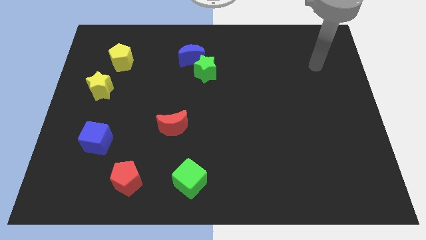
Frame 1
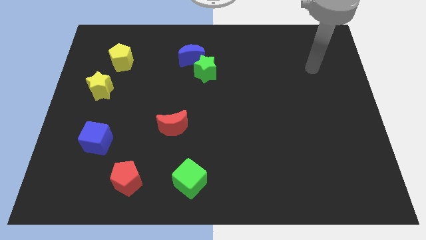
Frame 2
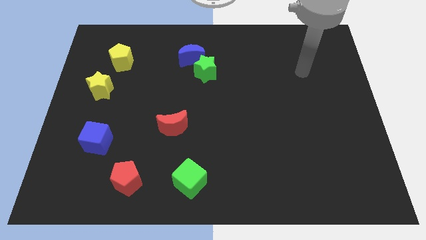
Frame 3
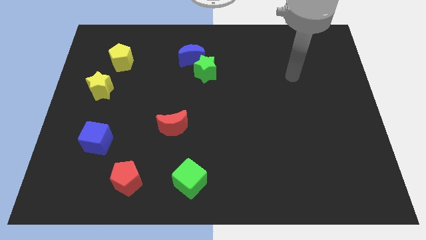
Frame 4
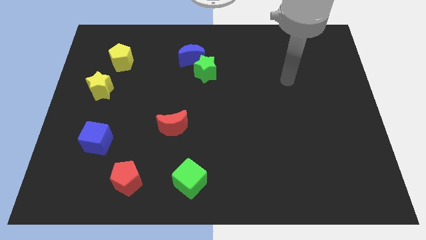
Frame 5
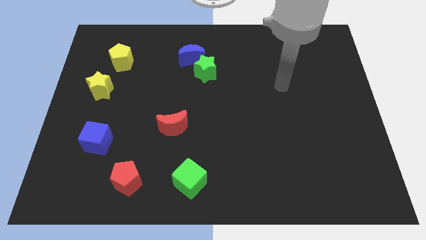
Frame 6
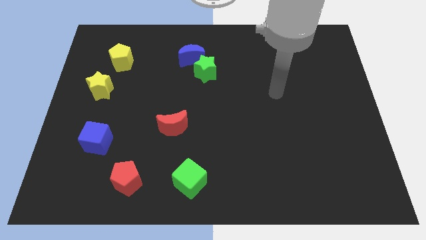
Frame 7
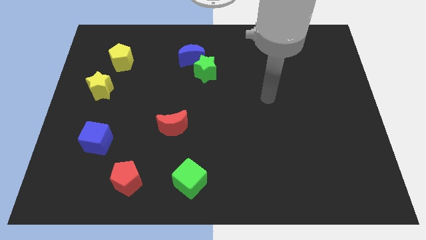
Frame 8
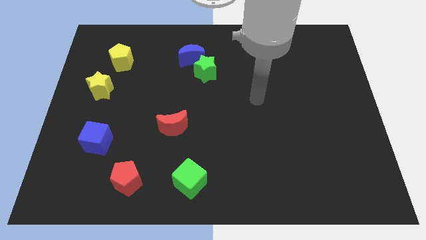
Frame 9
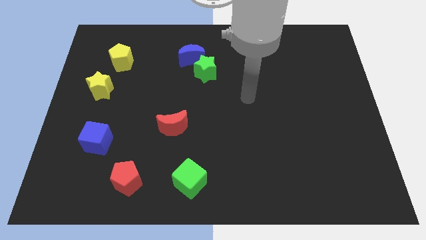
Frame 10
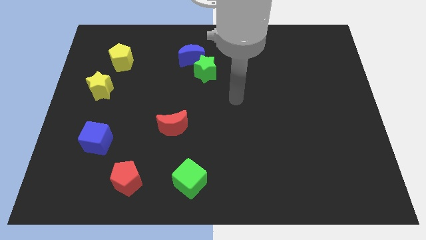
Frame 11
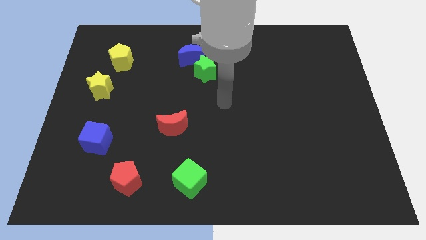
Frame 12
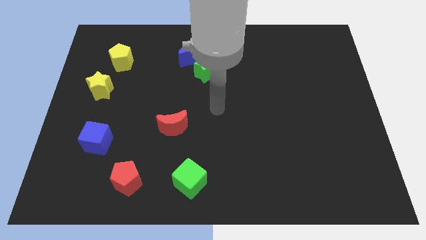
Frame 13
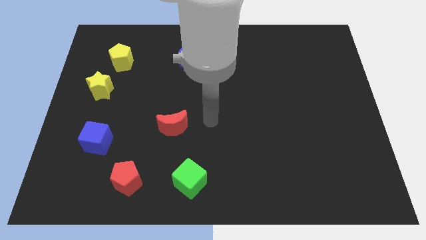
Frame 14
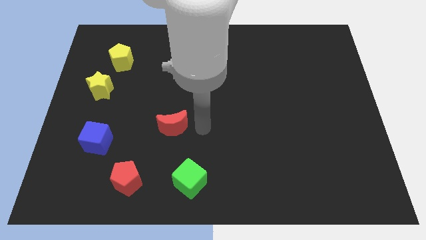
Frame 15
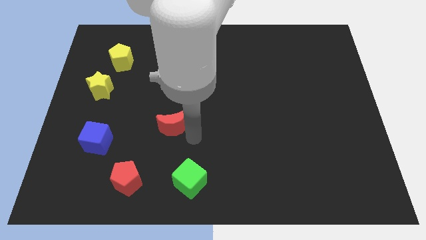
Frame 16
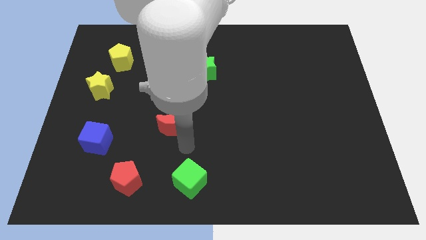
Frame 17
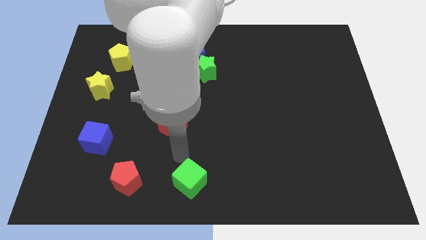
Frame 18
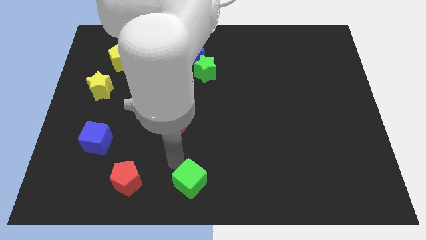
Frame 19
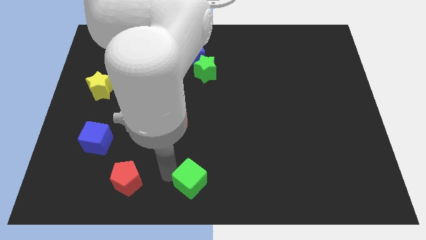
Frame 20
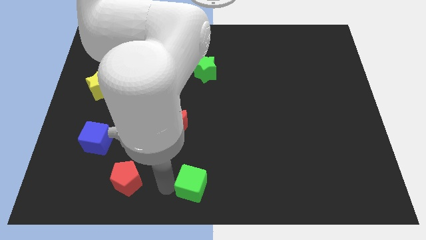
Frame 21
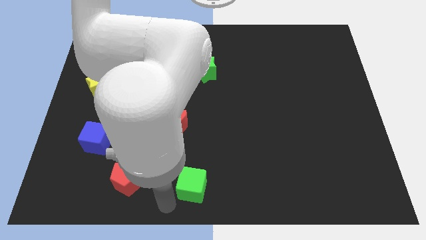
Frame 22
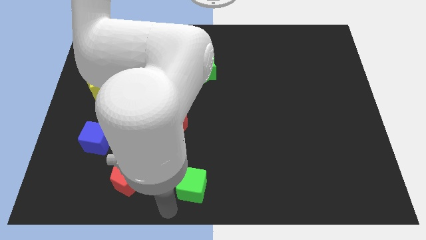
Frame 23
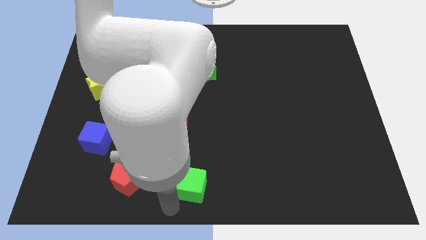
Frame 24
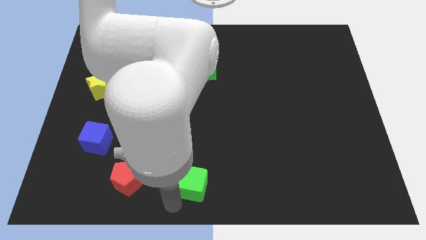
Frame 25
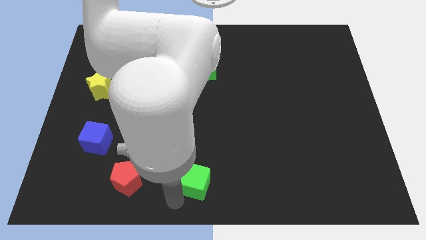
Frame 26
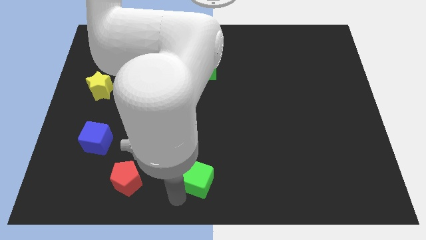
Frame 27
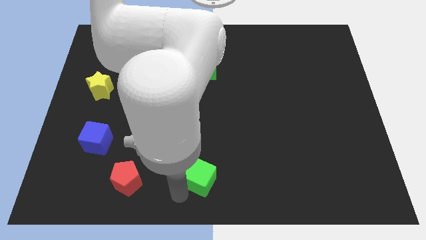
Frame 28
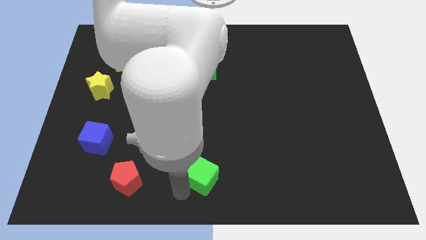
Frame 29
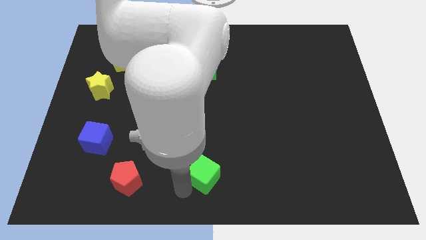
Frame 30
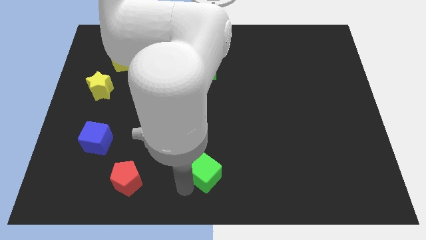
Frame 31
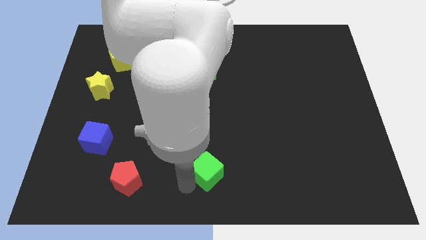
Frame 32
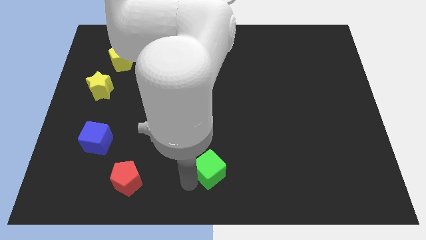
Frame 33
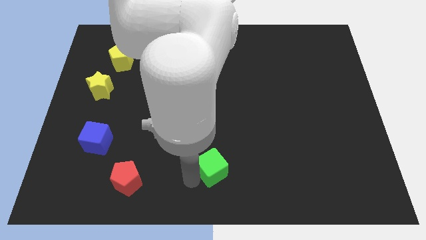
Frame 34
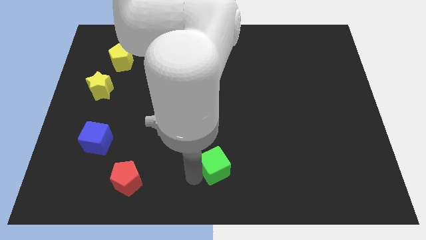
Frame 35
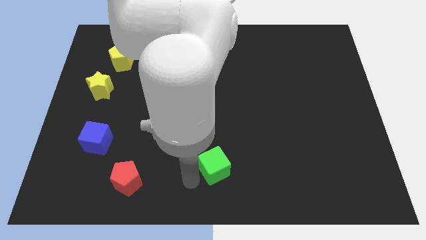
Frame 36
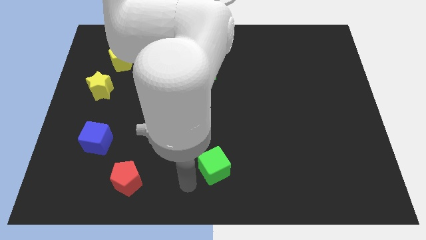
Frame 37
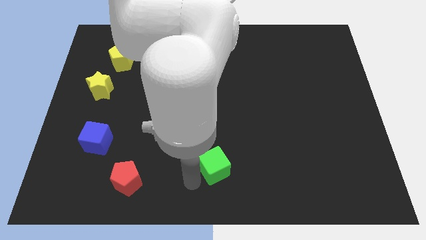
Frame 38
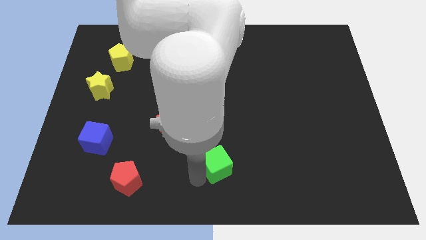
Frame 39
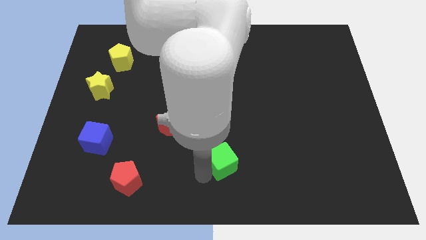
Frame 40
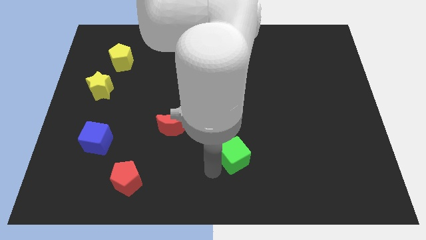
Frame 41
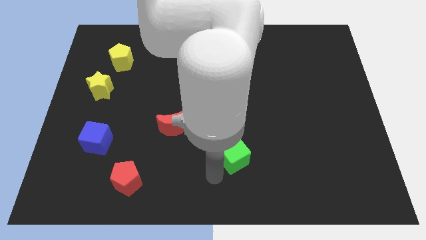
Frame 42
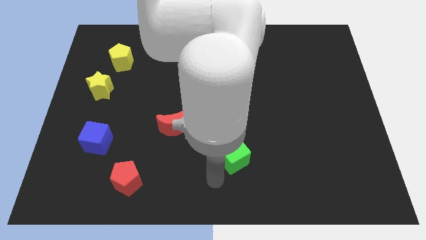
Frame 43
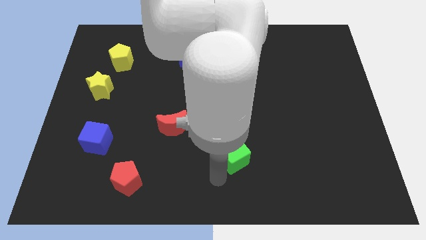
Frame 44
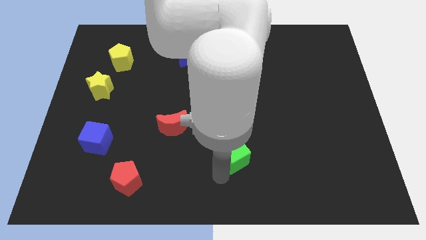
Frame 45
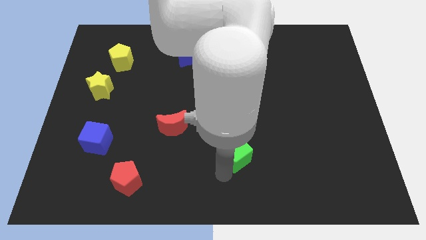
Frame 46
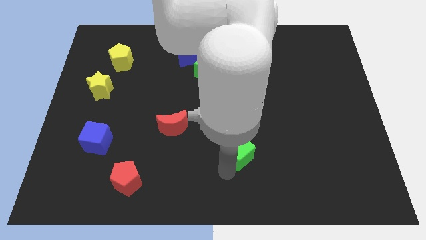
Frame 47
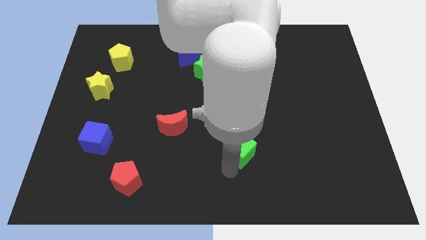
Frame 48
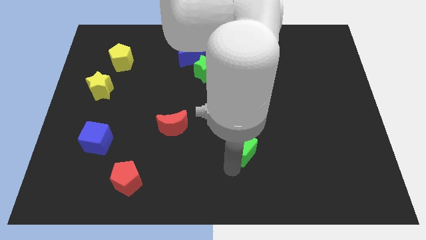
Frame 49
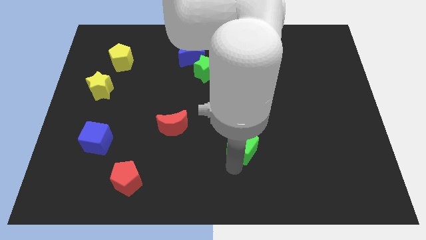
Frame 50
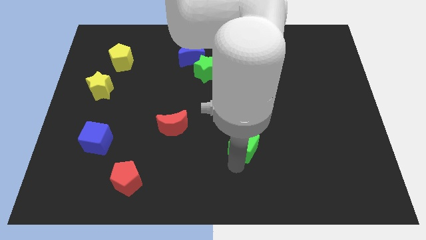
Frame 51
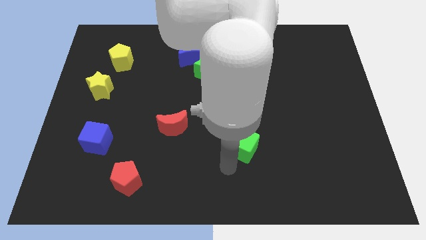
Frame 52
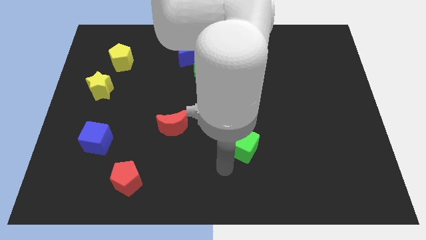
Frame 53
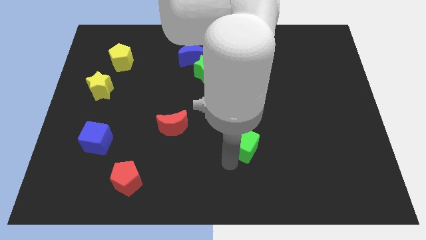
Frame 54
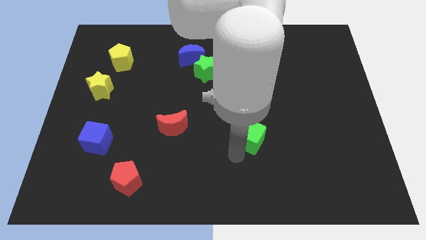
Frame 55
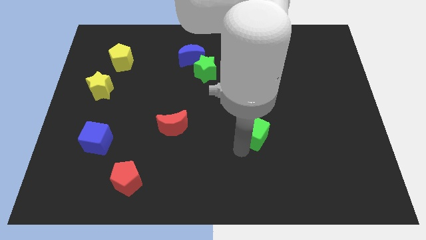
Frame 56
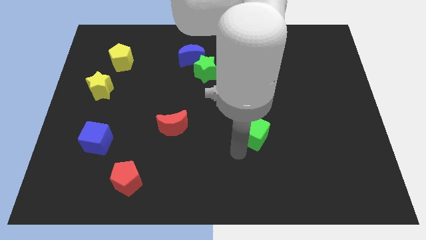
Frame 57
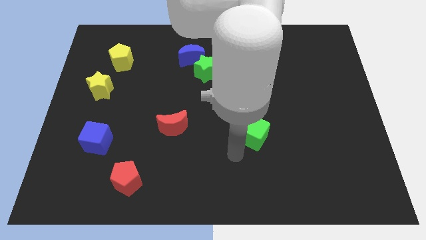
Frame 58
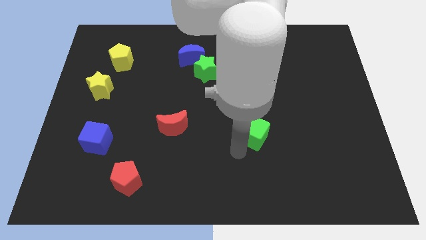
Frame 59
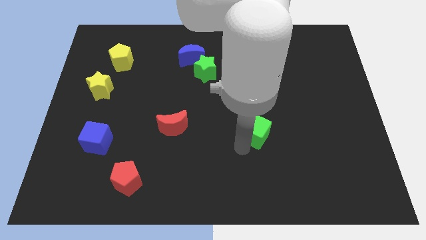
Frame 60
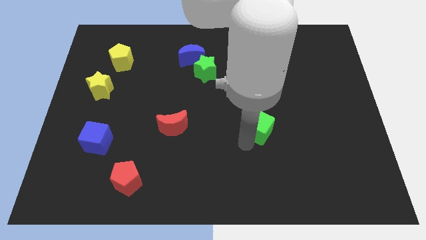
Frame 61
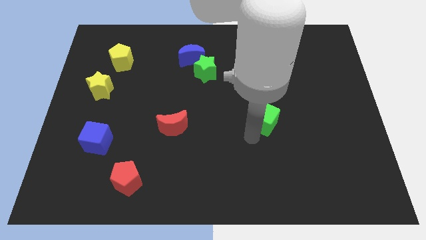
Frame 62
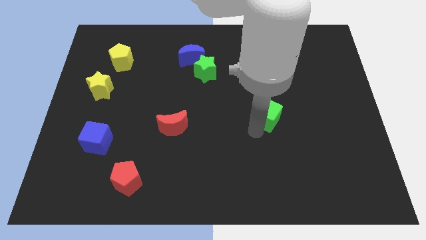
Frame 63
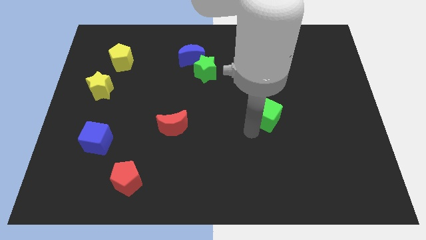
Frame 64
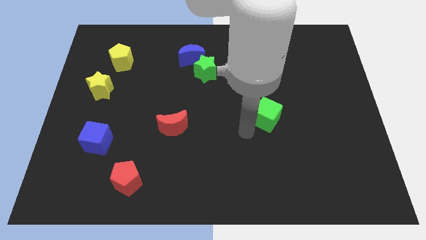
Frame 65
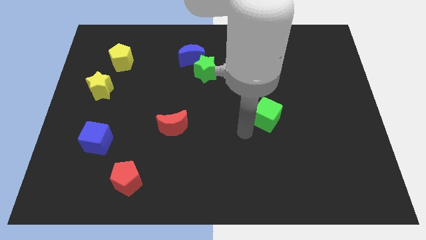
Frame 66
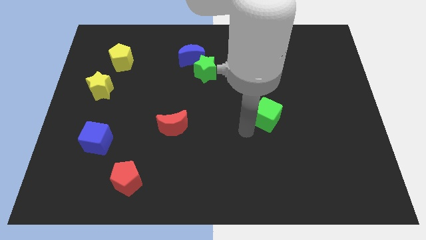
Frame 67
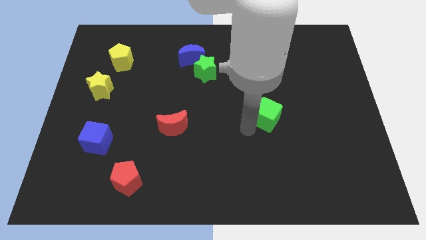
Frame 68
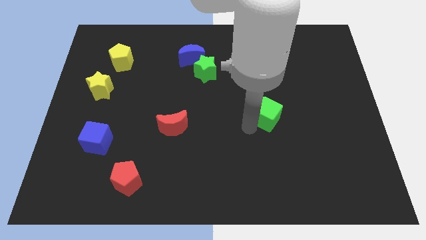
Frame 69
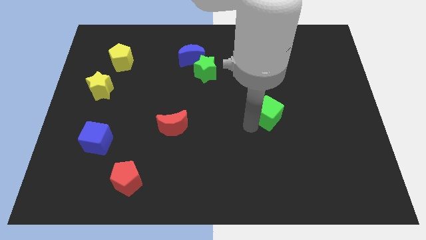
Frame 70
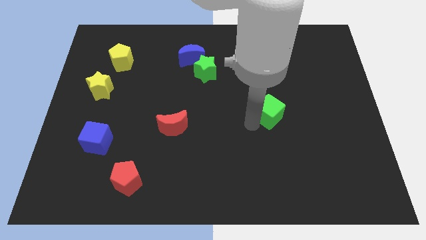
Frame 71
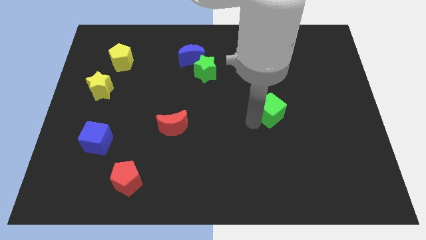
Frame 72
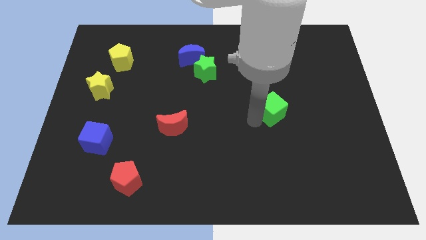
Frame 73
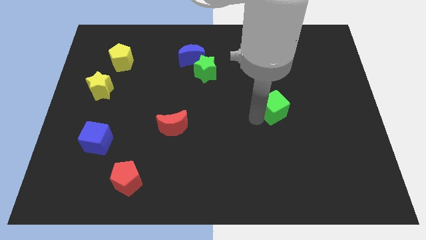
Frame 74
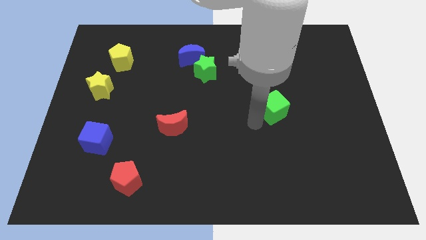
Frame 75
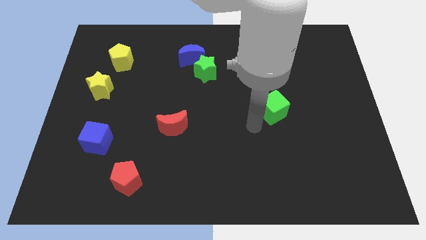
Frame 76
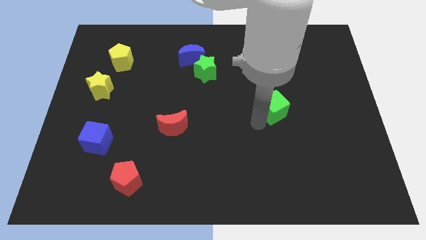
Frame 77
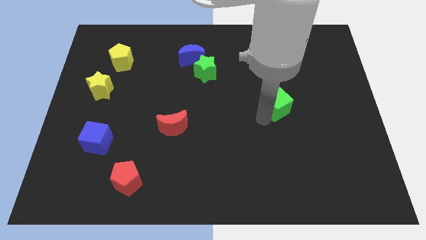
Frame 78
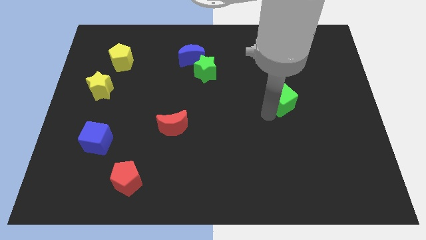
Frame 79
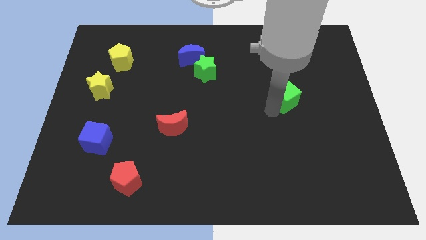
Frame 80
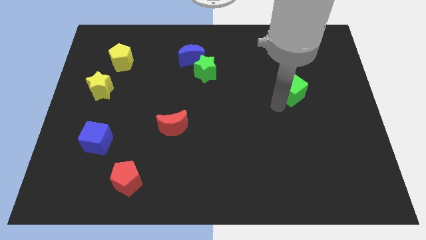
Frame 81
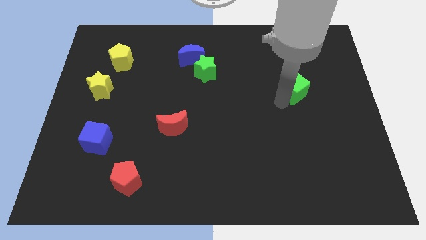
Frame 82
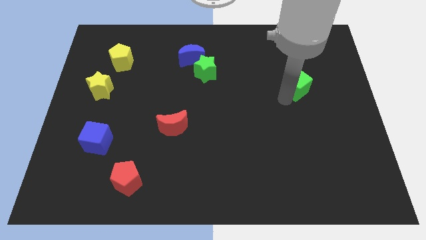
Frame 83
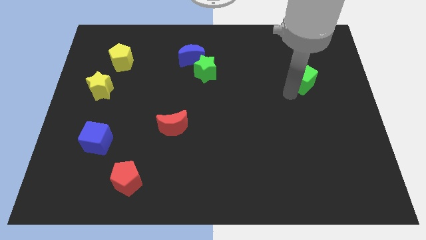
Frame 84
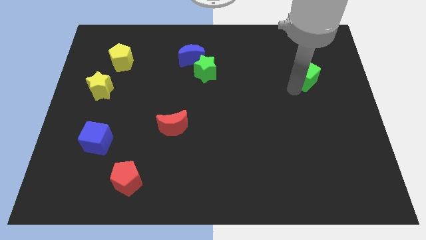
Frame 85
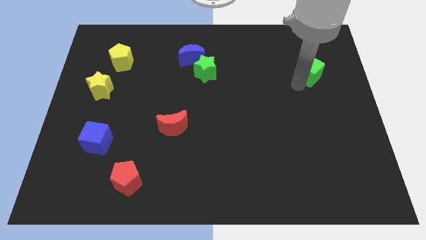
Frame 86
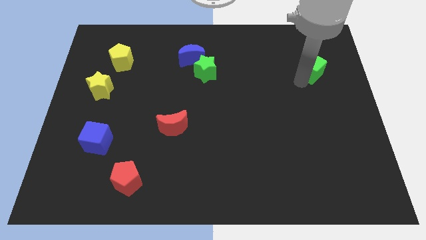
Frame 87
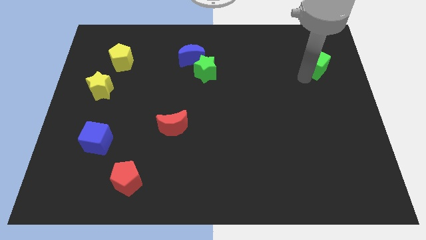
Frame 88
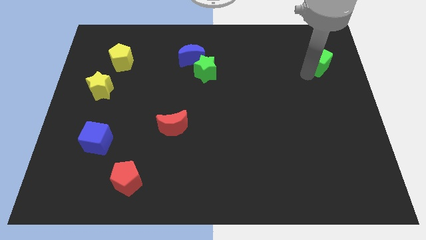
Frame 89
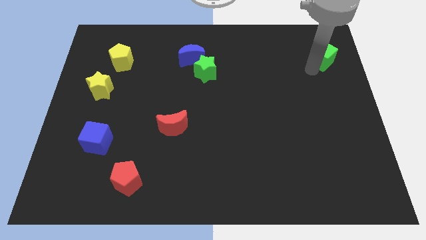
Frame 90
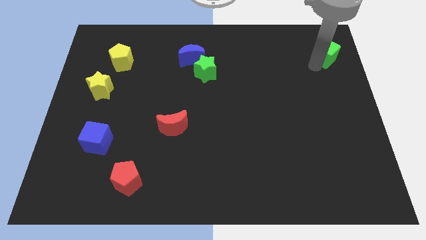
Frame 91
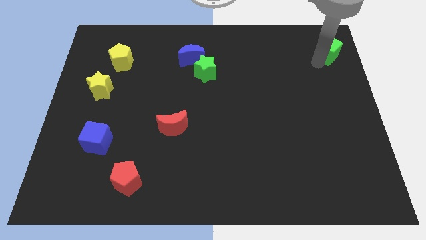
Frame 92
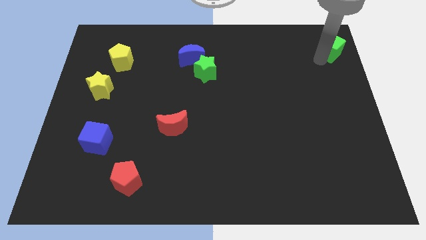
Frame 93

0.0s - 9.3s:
push the green cube to the top right corner
